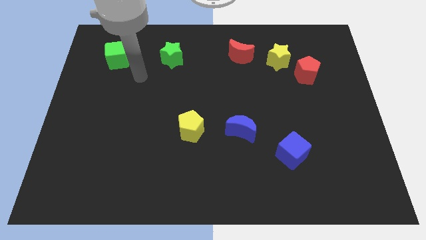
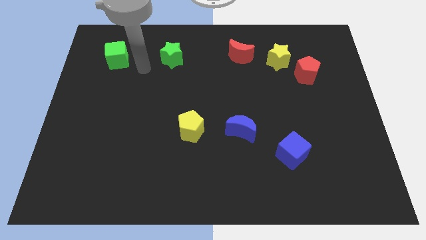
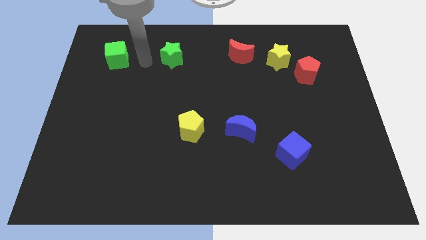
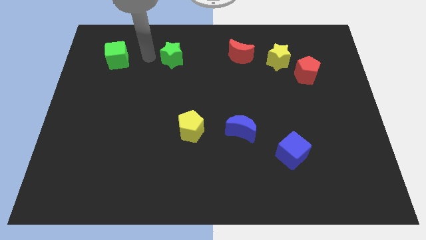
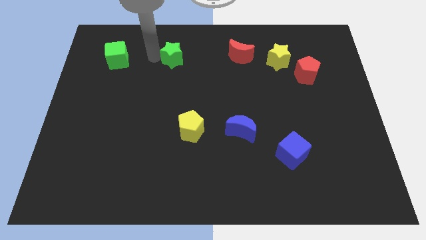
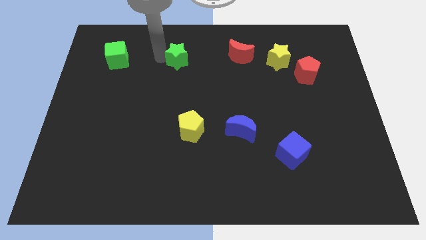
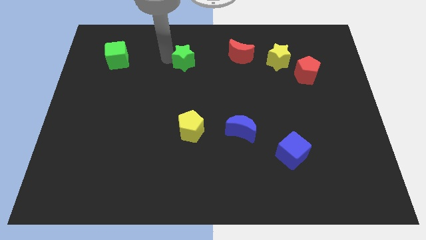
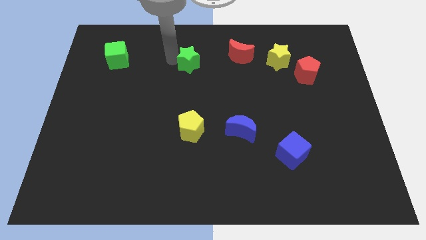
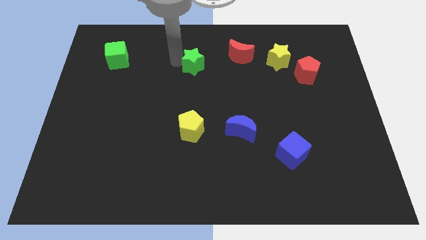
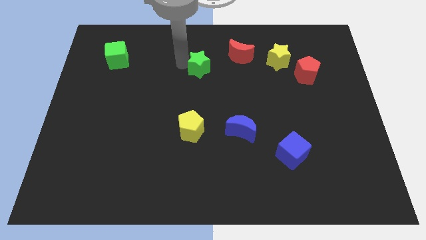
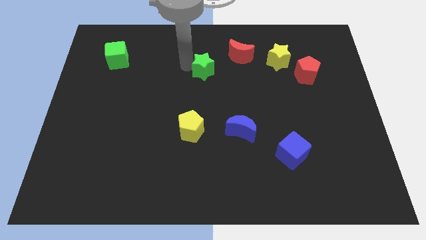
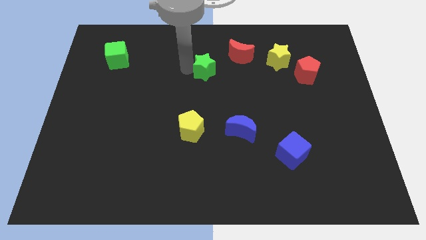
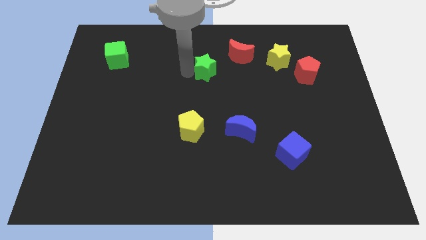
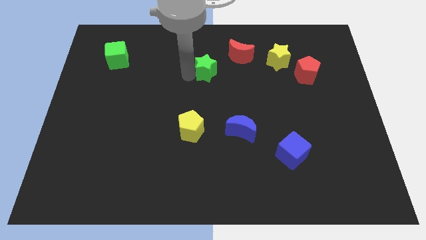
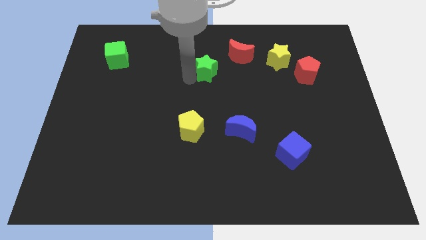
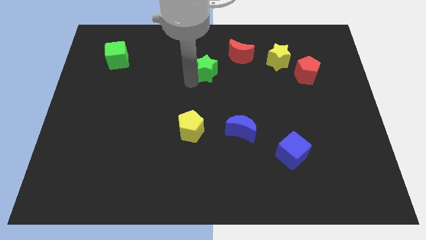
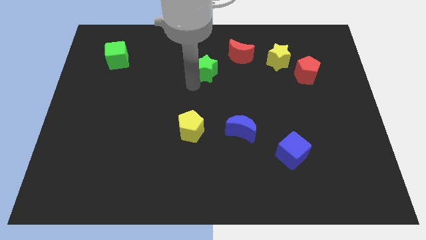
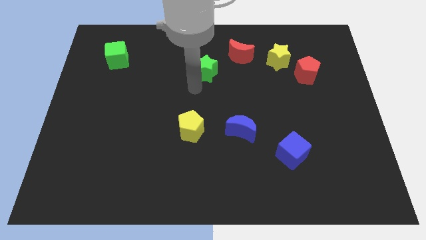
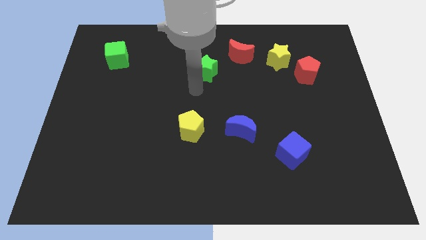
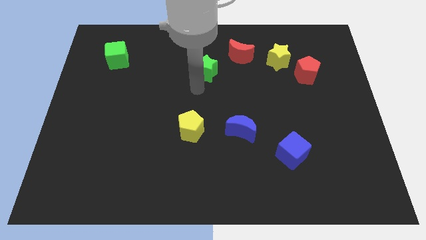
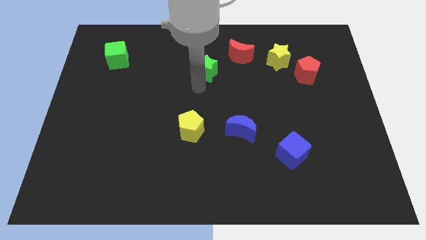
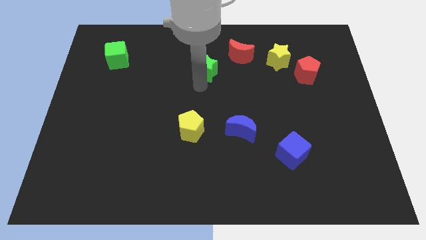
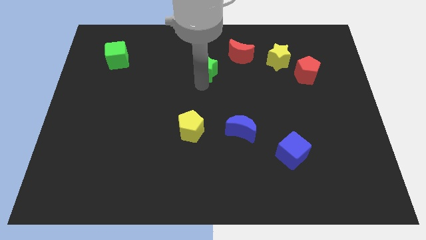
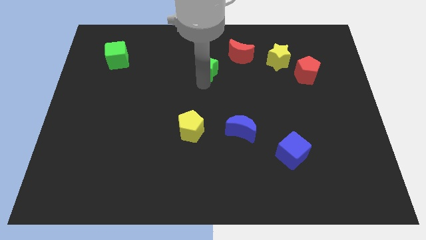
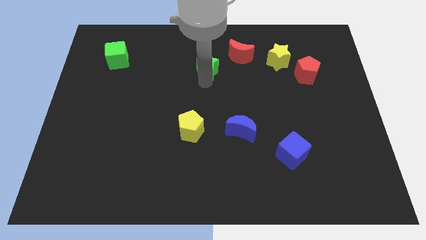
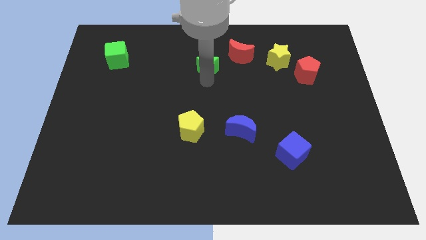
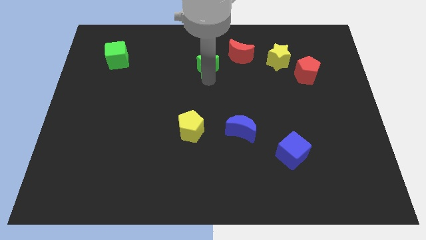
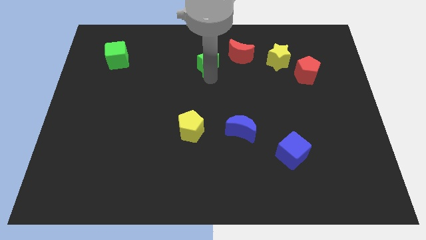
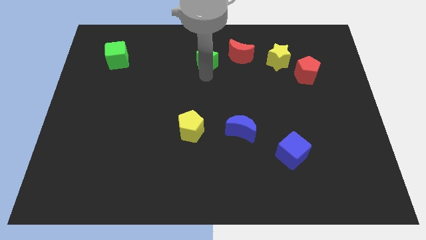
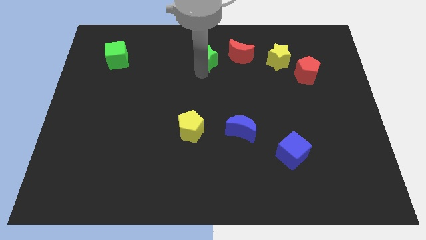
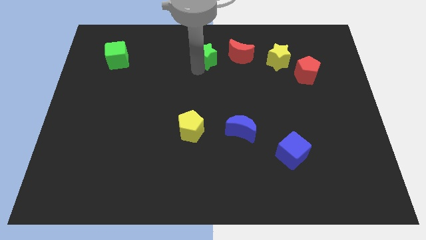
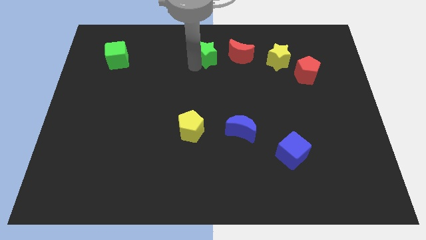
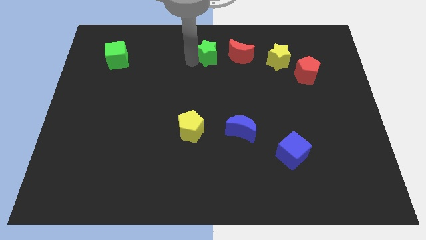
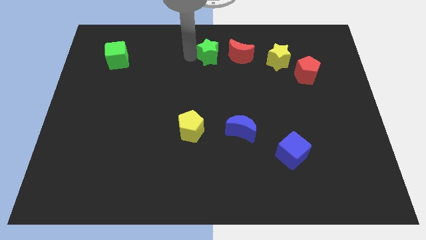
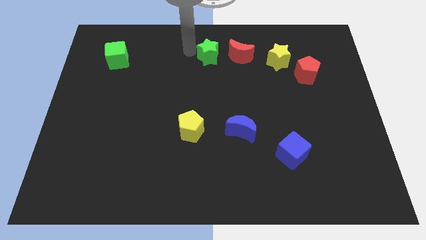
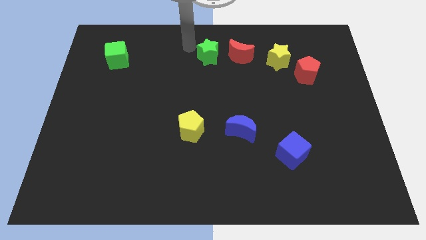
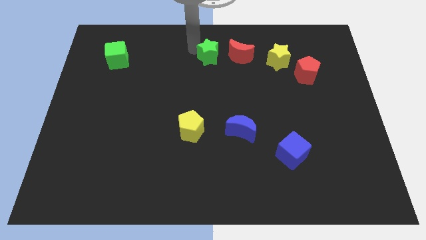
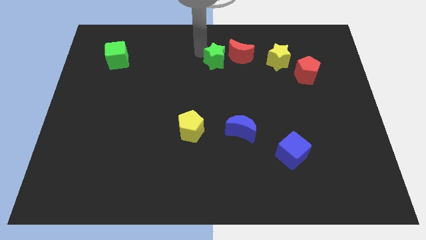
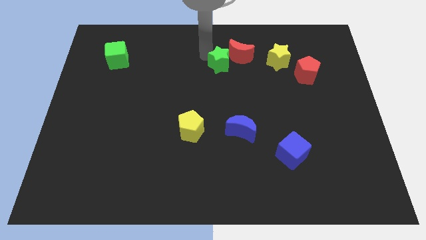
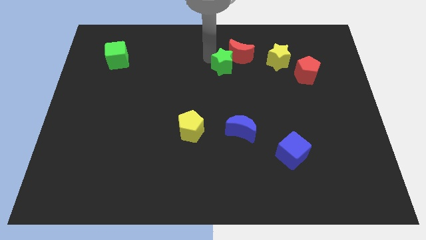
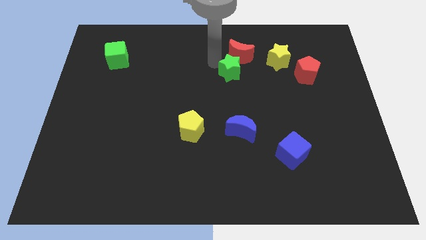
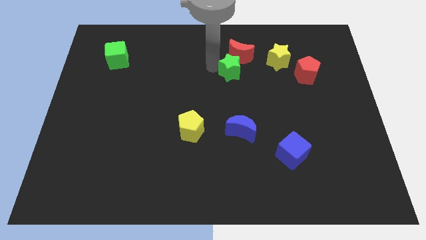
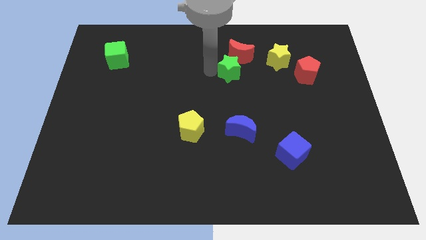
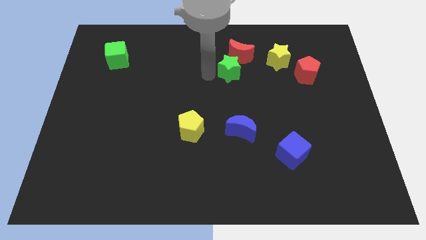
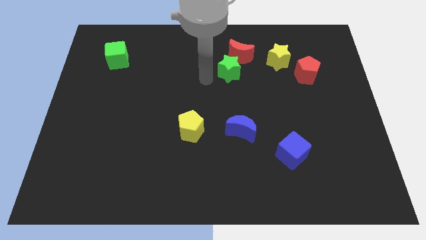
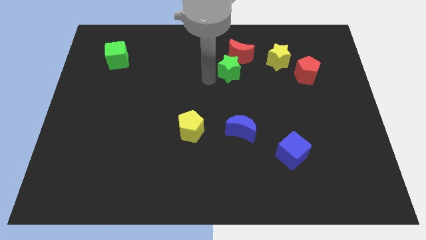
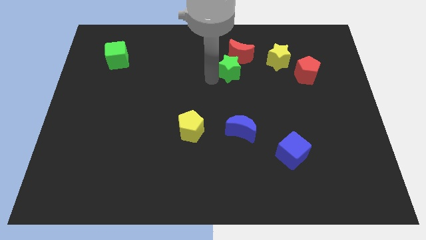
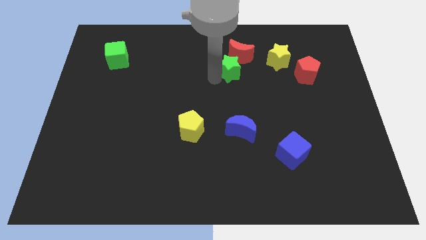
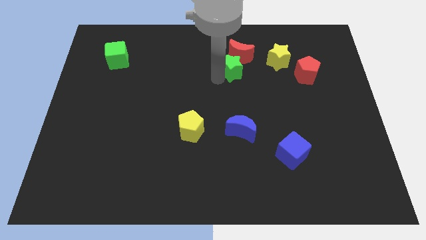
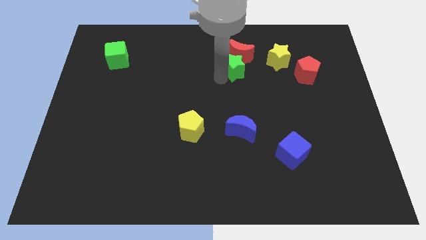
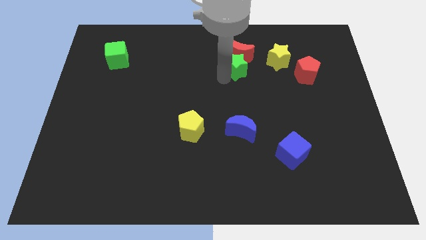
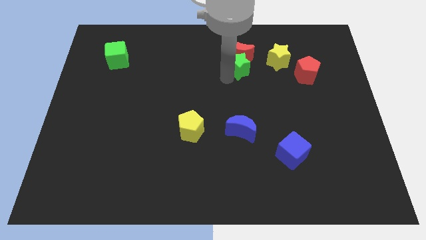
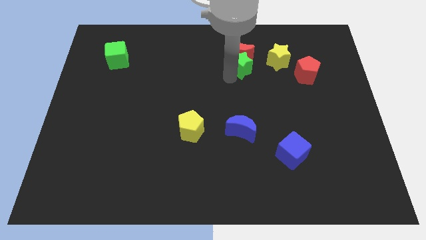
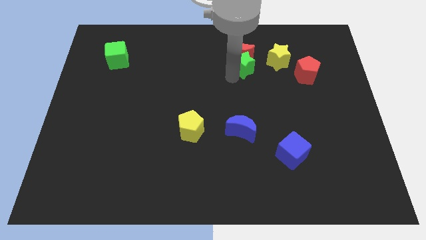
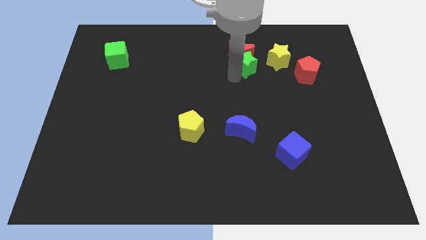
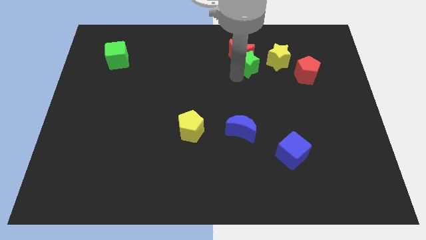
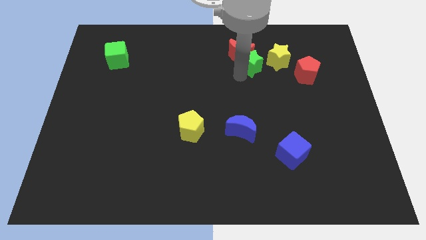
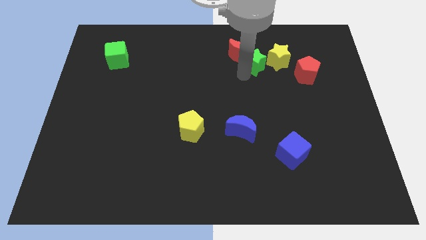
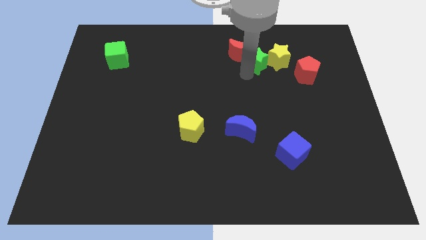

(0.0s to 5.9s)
push the green star to the yellow star

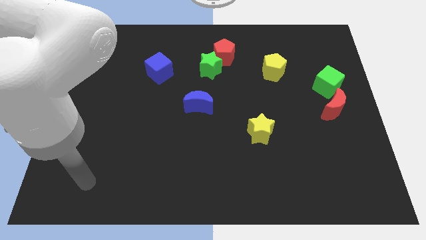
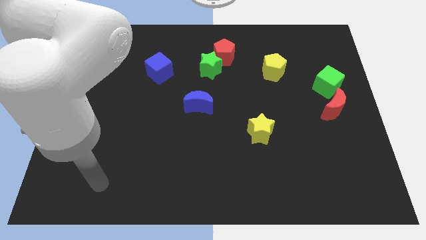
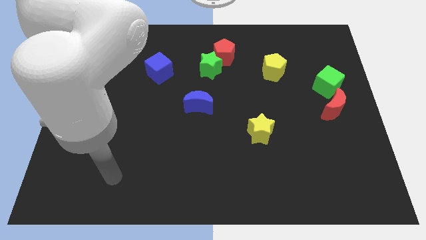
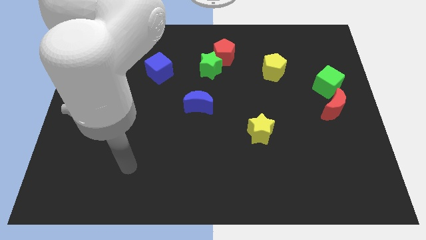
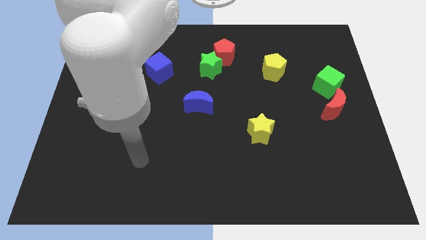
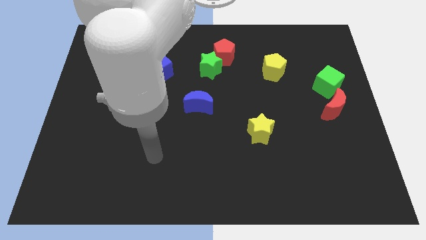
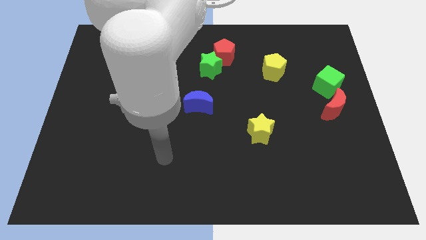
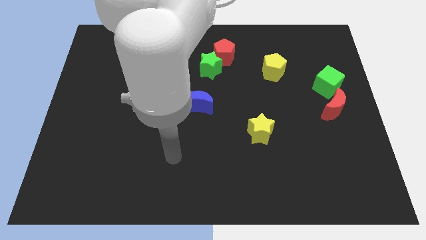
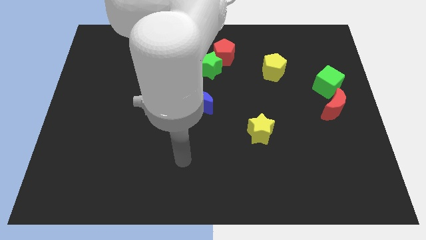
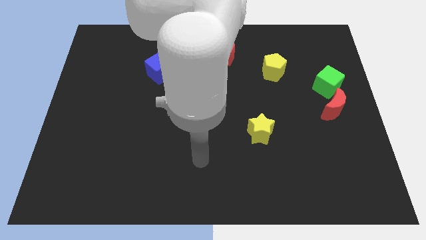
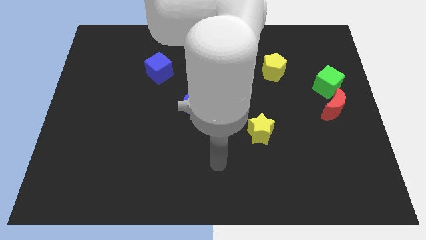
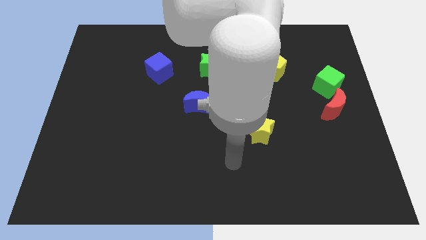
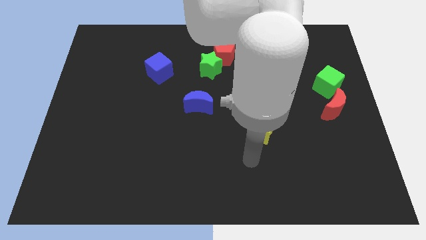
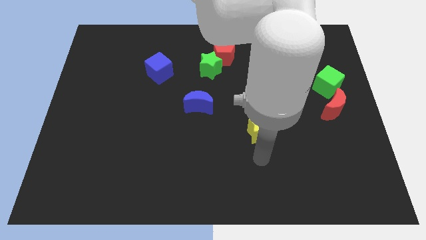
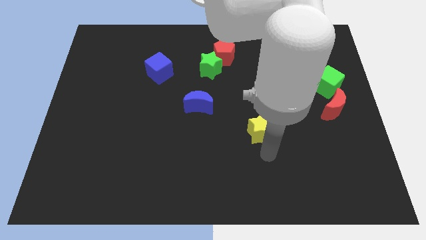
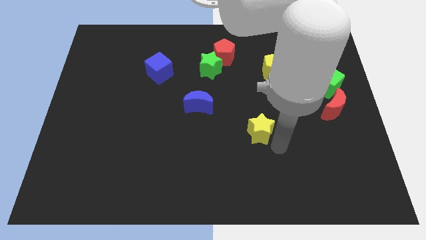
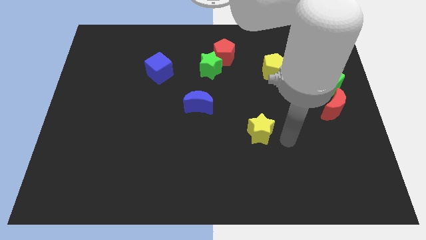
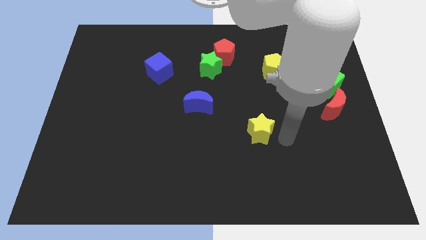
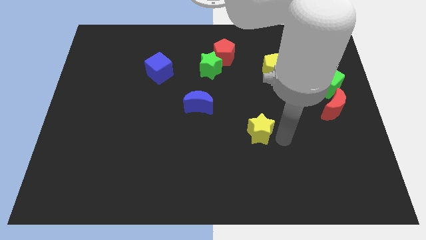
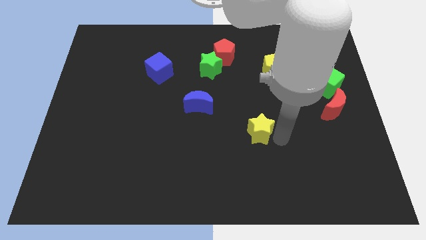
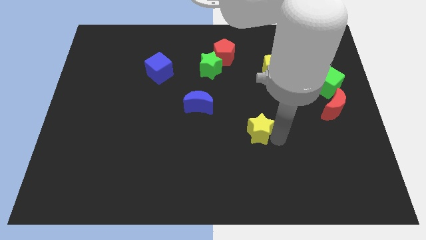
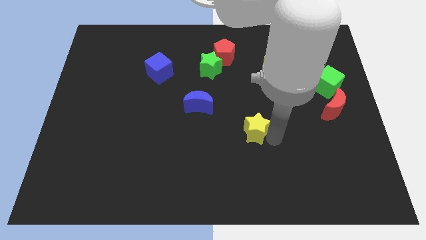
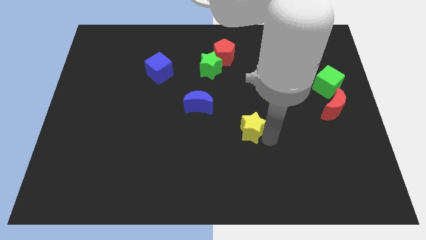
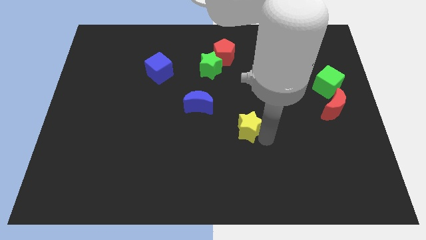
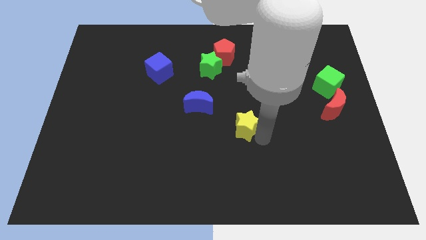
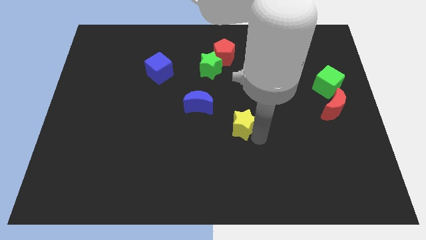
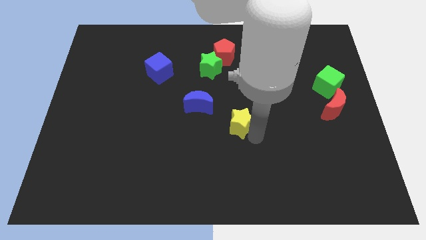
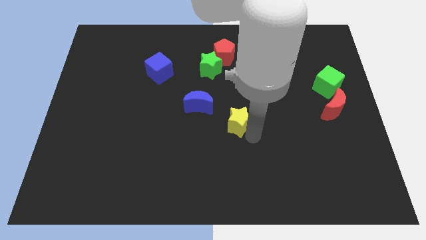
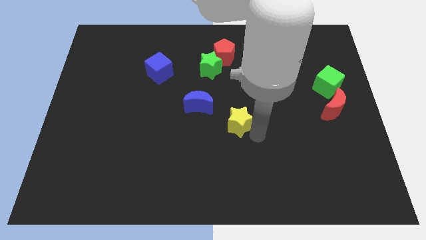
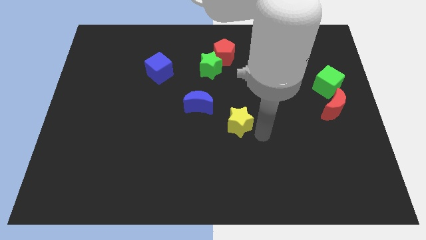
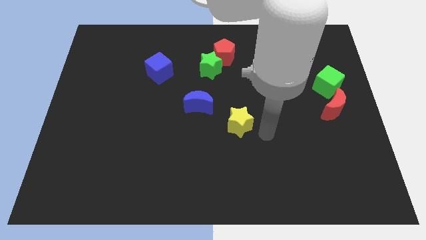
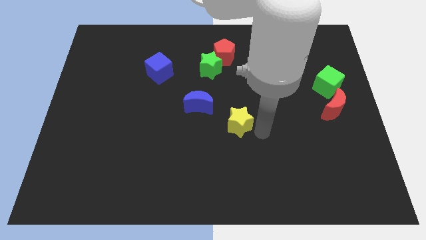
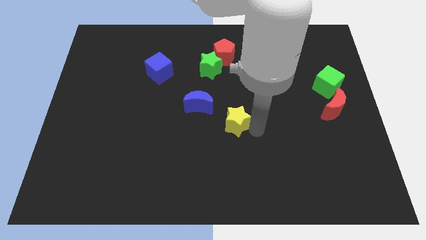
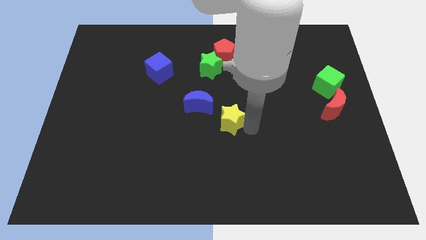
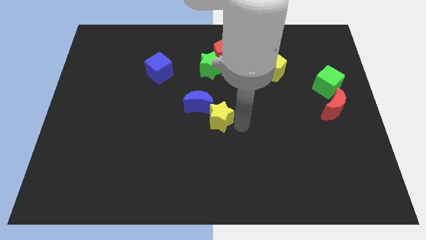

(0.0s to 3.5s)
slide the yellow star next to the blue moon
